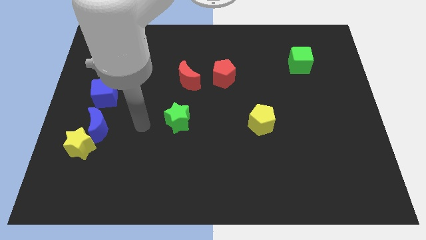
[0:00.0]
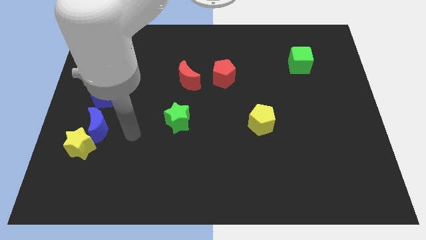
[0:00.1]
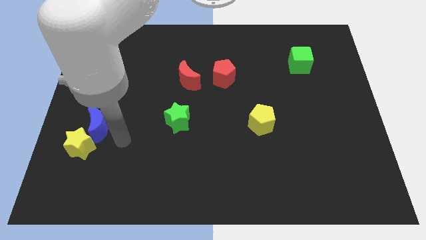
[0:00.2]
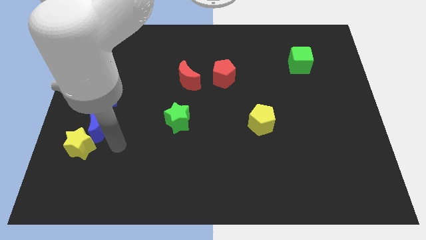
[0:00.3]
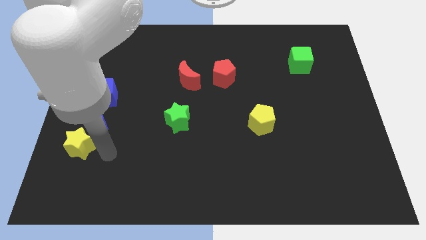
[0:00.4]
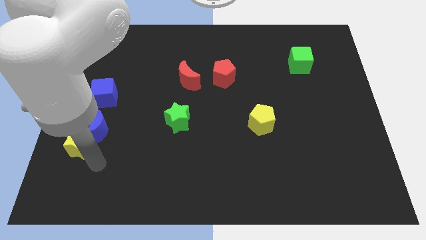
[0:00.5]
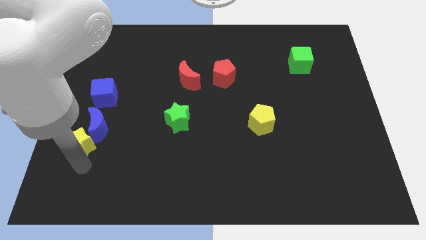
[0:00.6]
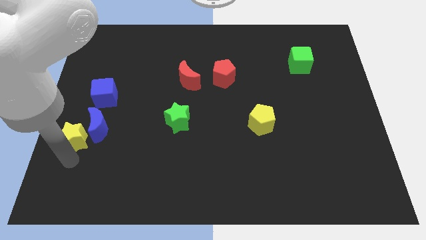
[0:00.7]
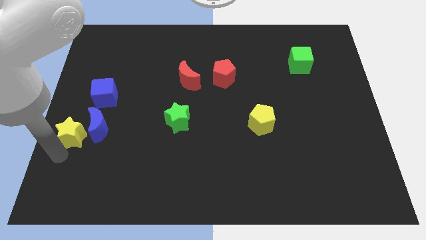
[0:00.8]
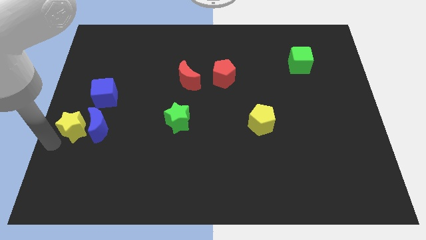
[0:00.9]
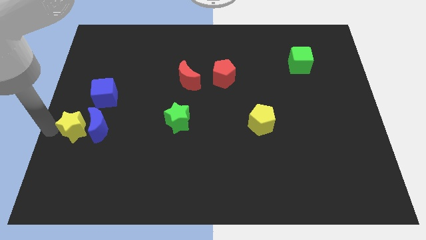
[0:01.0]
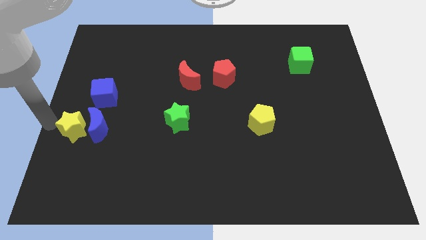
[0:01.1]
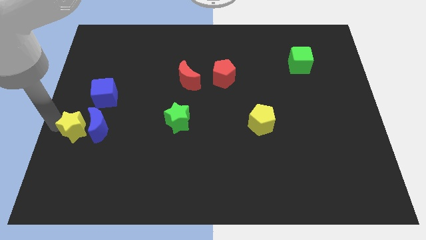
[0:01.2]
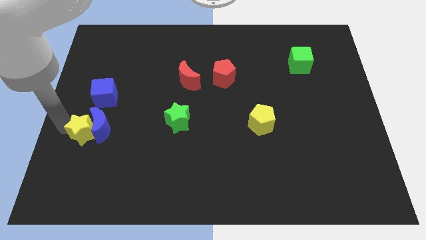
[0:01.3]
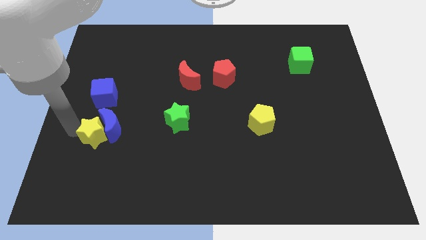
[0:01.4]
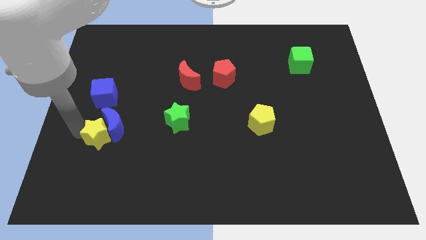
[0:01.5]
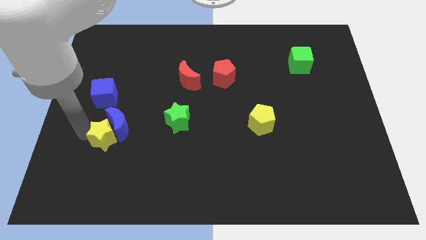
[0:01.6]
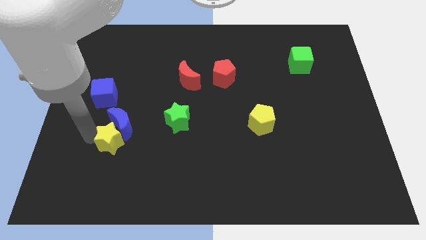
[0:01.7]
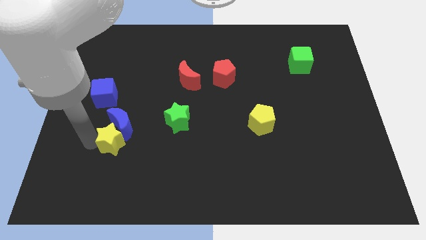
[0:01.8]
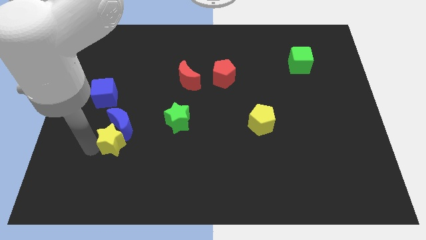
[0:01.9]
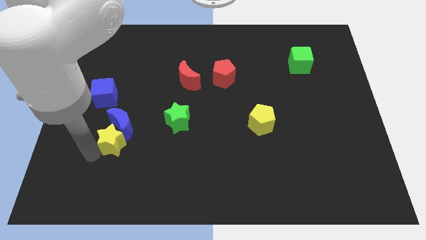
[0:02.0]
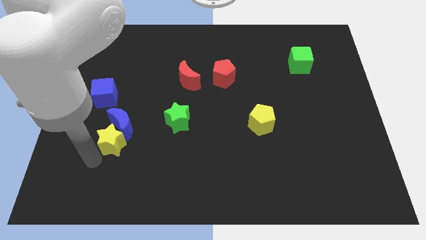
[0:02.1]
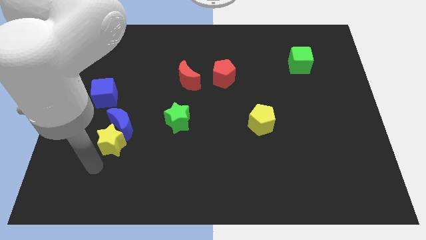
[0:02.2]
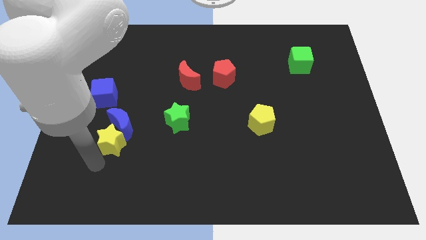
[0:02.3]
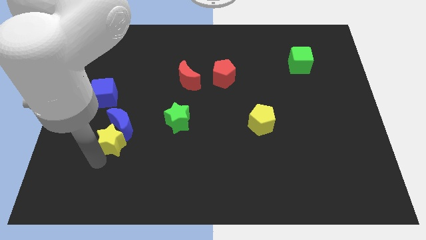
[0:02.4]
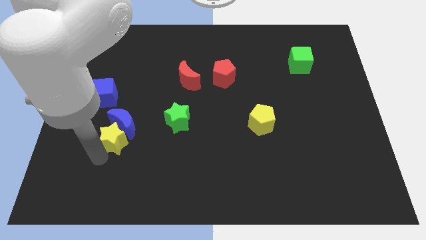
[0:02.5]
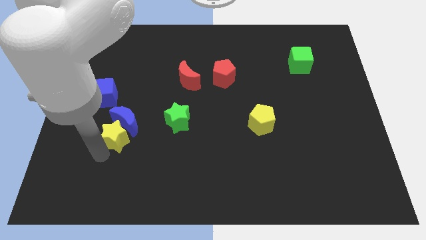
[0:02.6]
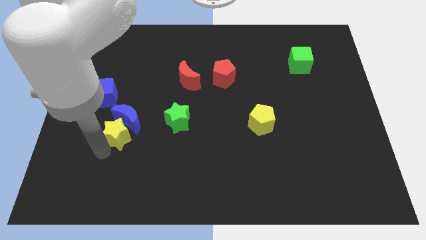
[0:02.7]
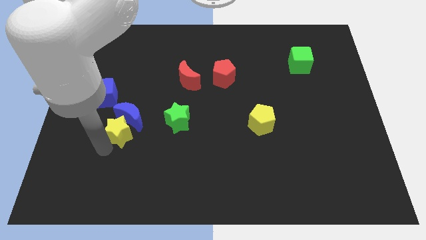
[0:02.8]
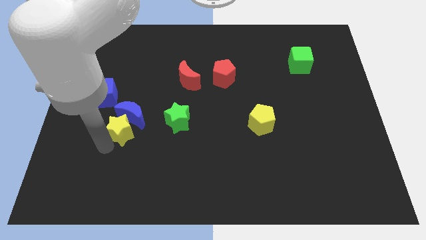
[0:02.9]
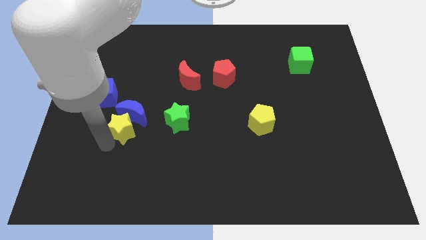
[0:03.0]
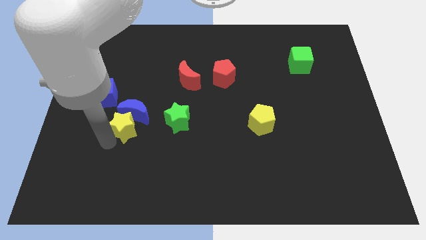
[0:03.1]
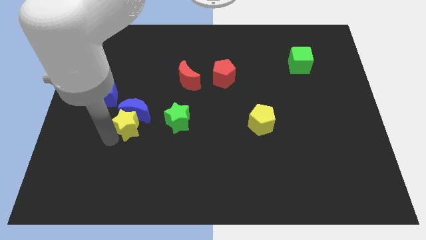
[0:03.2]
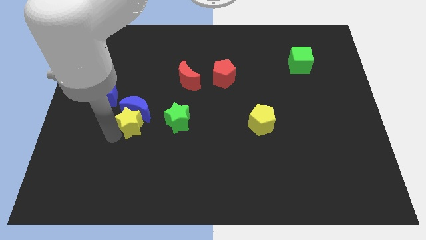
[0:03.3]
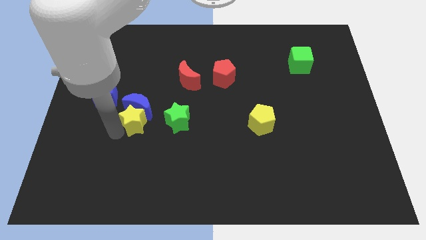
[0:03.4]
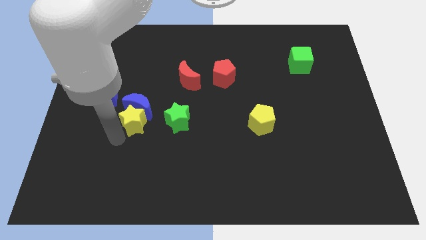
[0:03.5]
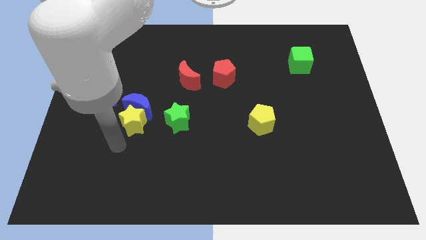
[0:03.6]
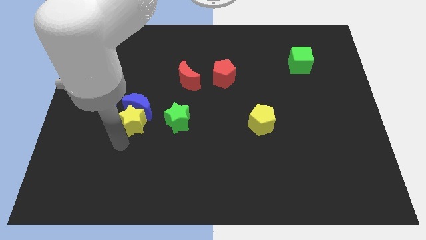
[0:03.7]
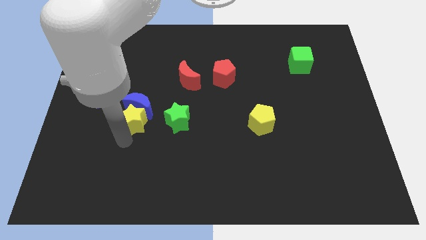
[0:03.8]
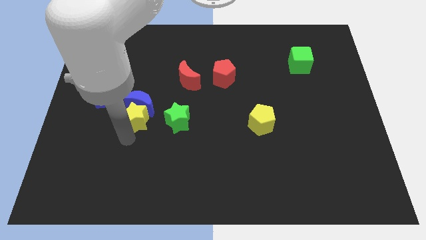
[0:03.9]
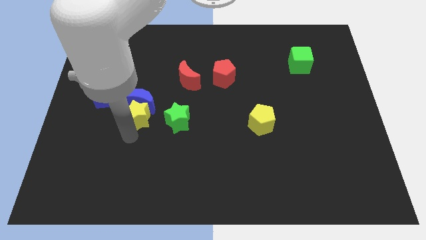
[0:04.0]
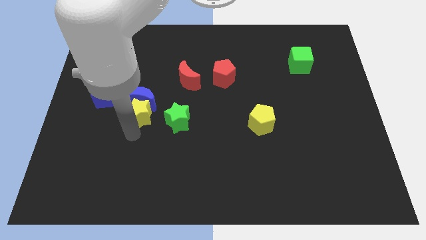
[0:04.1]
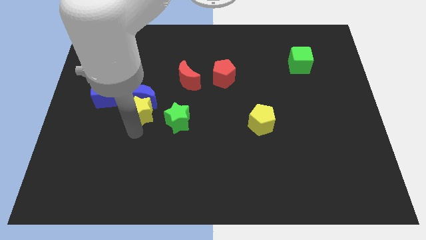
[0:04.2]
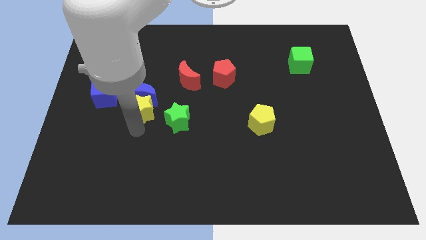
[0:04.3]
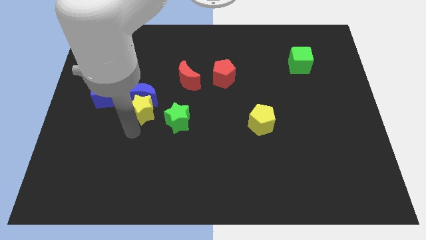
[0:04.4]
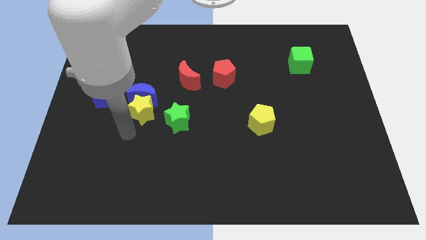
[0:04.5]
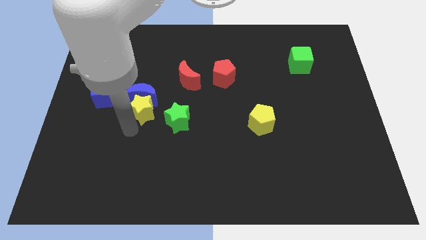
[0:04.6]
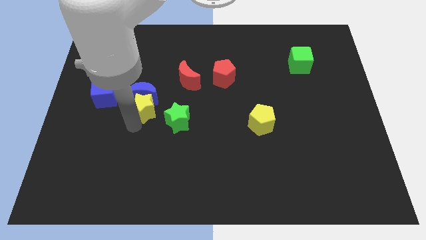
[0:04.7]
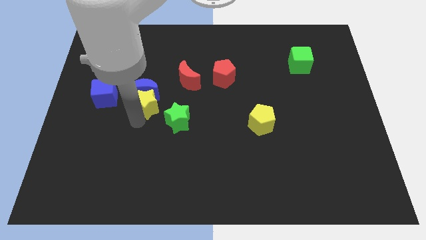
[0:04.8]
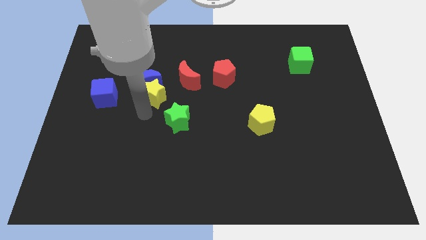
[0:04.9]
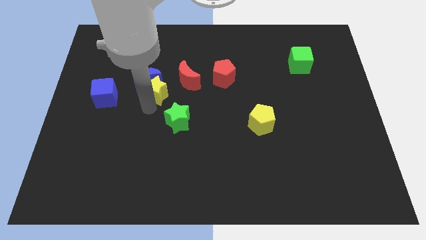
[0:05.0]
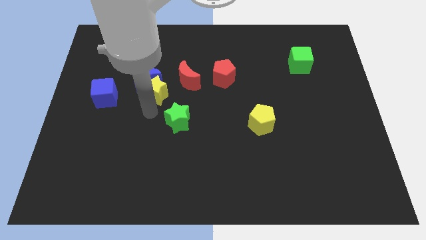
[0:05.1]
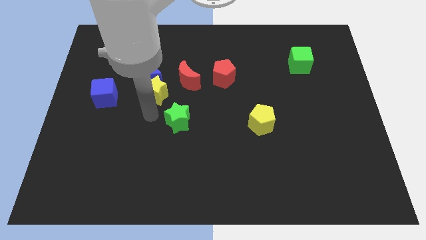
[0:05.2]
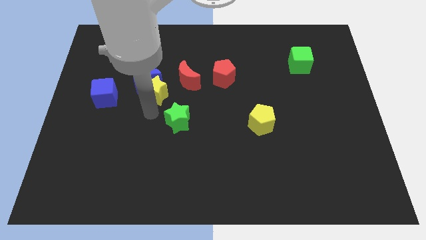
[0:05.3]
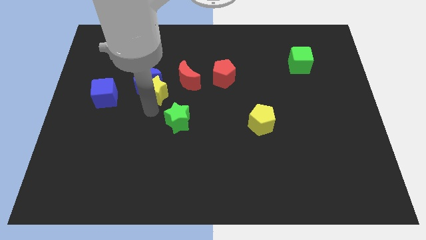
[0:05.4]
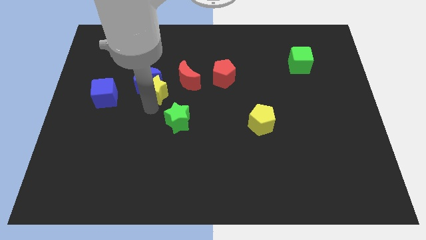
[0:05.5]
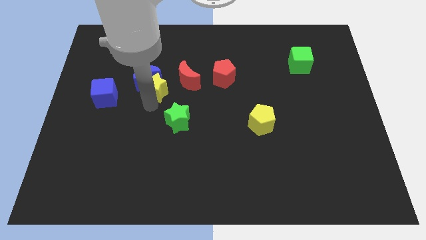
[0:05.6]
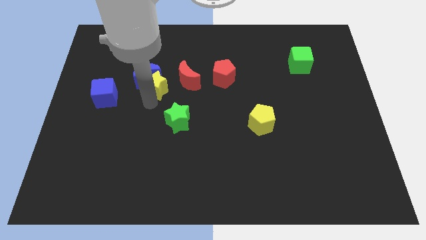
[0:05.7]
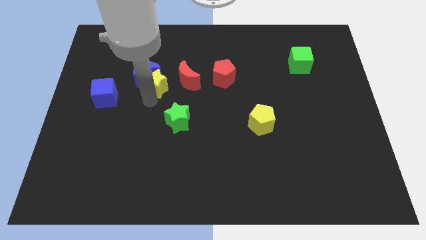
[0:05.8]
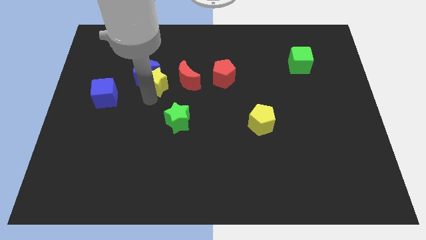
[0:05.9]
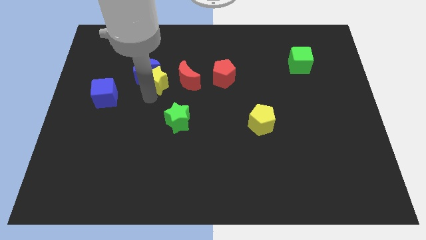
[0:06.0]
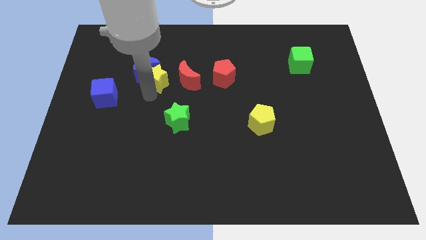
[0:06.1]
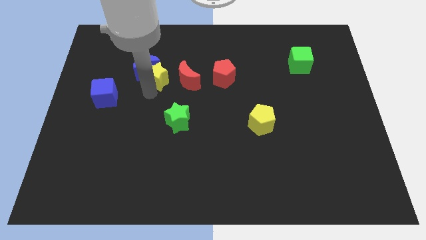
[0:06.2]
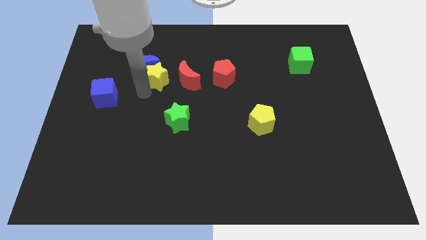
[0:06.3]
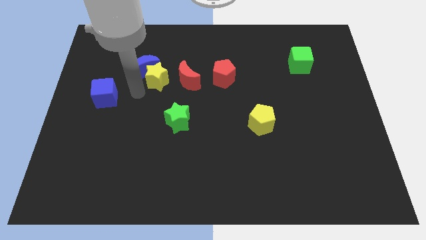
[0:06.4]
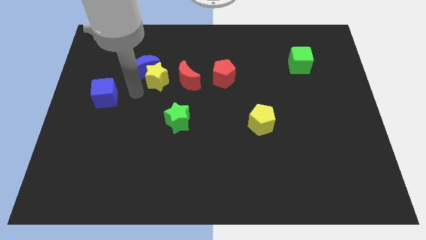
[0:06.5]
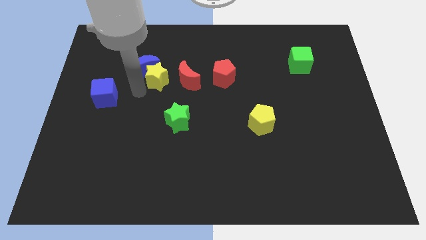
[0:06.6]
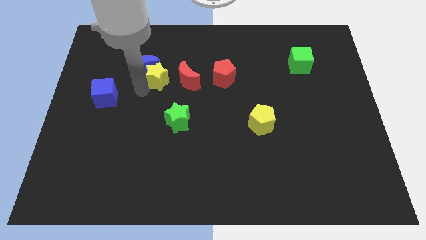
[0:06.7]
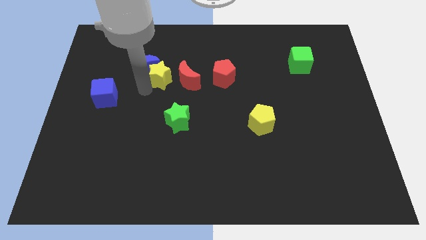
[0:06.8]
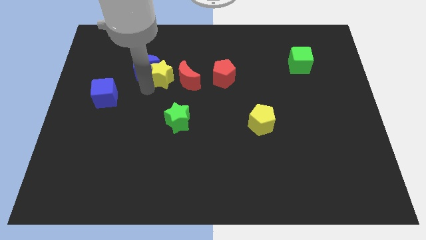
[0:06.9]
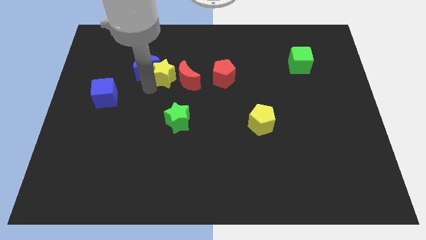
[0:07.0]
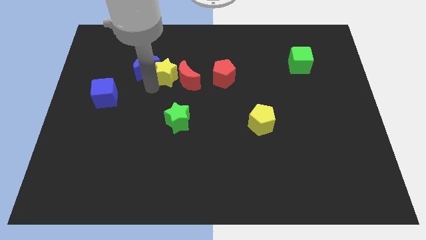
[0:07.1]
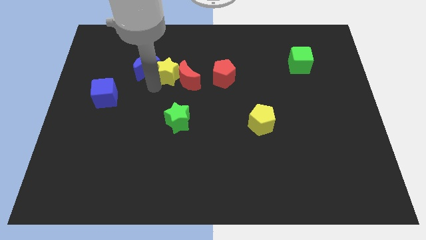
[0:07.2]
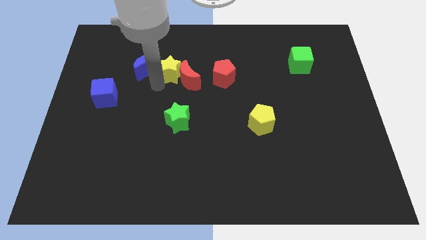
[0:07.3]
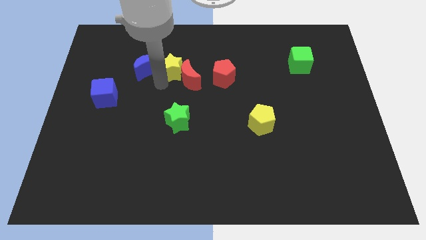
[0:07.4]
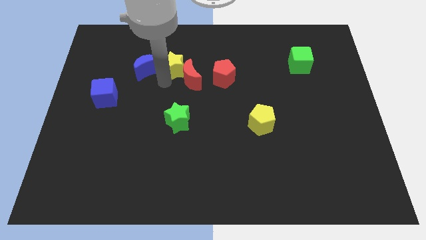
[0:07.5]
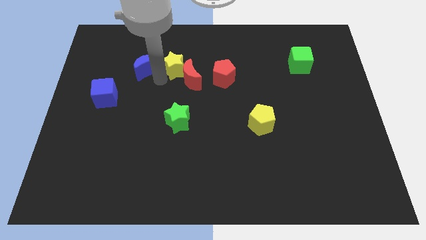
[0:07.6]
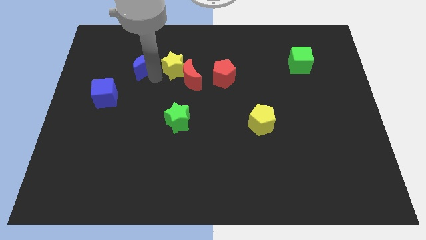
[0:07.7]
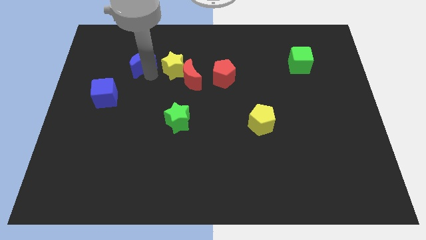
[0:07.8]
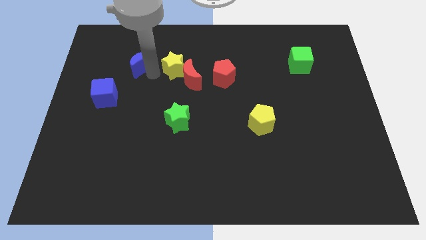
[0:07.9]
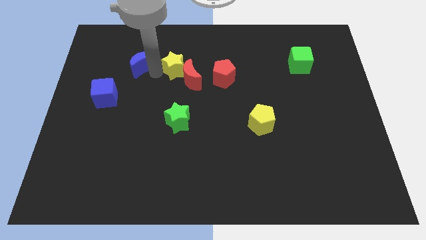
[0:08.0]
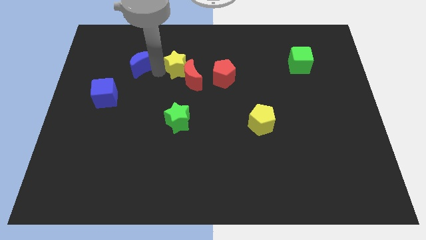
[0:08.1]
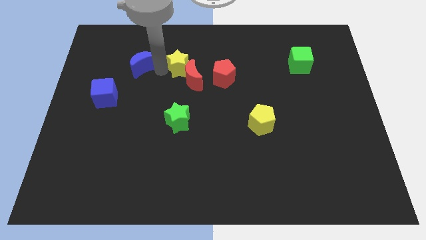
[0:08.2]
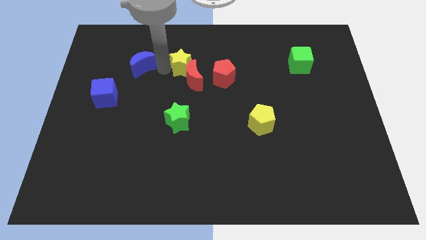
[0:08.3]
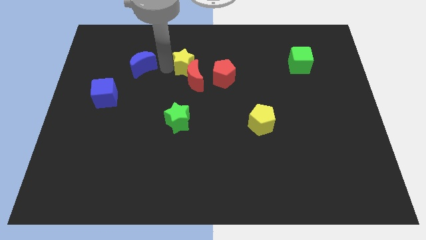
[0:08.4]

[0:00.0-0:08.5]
push the yellow star to the top left side of the red pentagon
